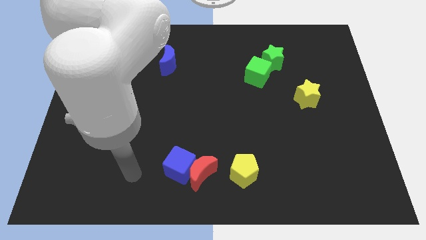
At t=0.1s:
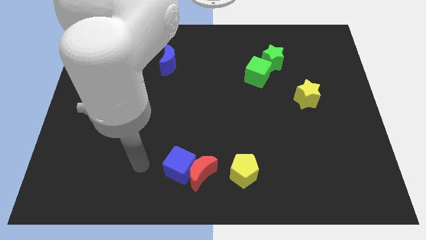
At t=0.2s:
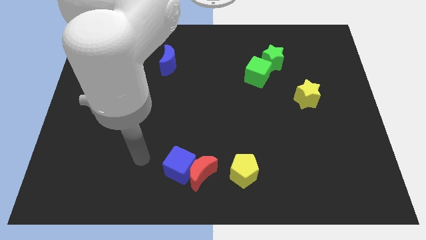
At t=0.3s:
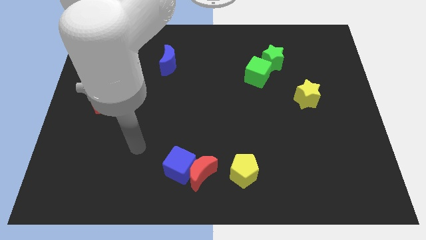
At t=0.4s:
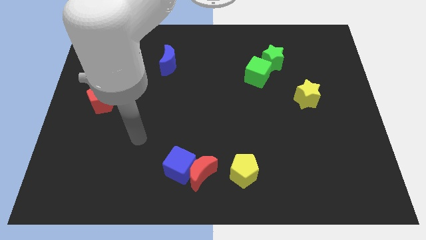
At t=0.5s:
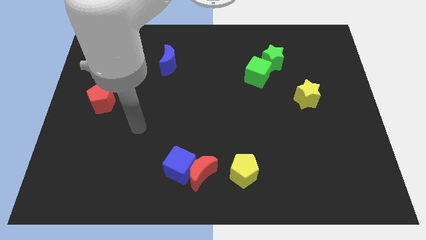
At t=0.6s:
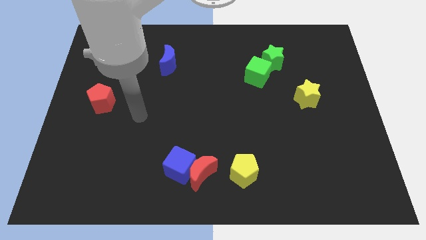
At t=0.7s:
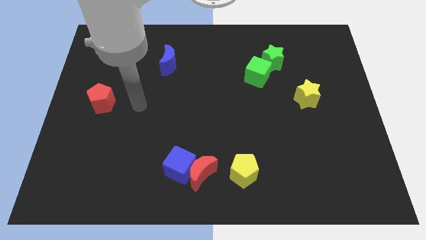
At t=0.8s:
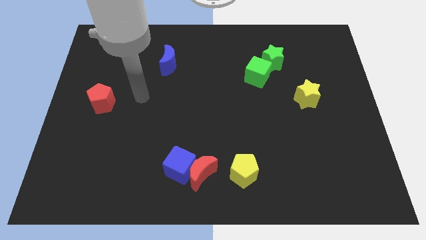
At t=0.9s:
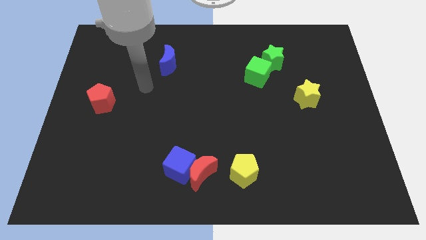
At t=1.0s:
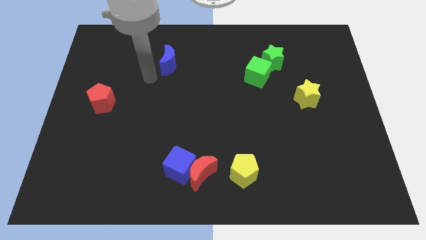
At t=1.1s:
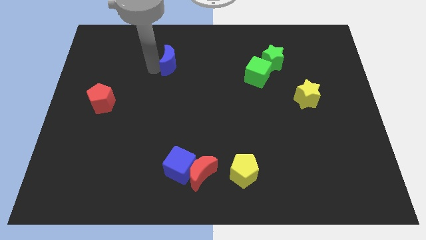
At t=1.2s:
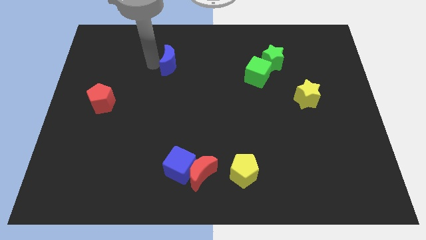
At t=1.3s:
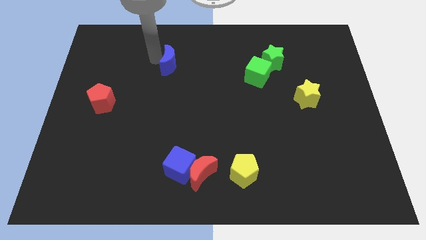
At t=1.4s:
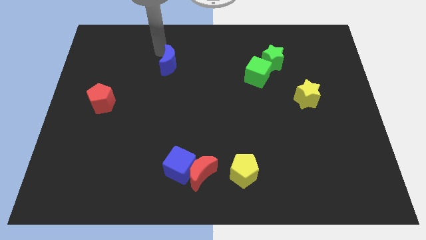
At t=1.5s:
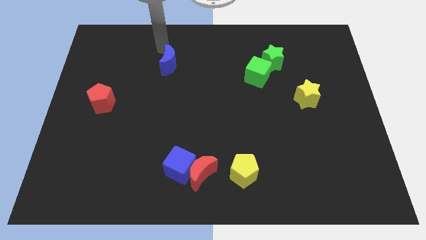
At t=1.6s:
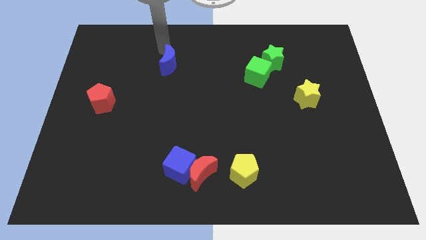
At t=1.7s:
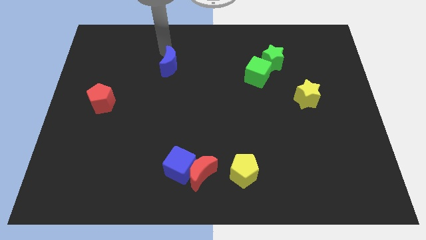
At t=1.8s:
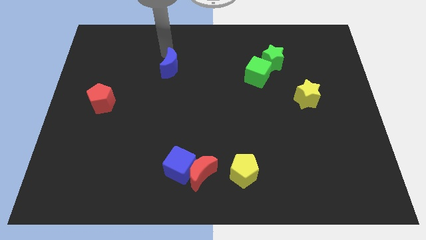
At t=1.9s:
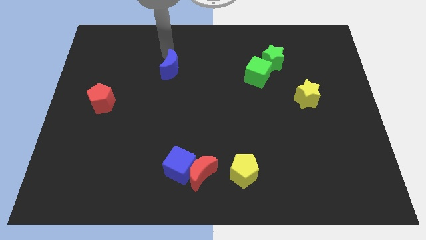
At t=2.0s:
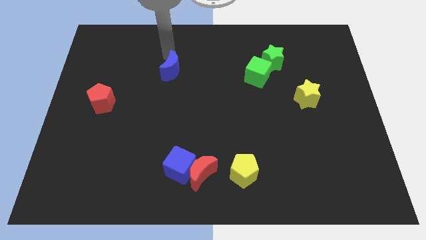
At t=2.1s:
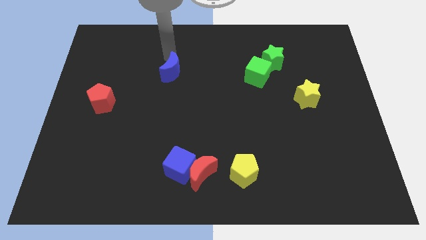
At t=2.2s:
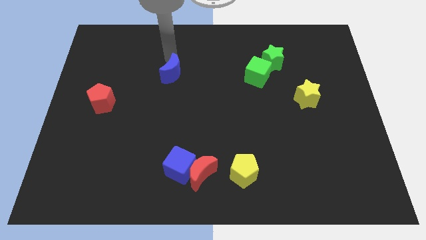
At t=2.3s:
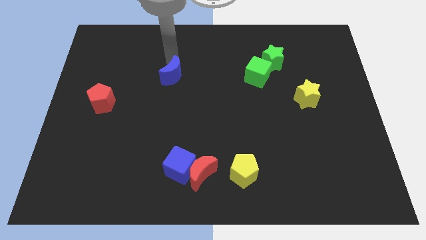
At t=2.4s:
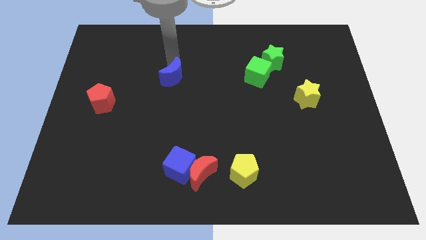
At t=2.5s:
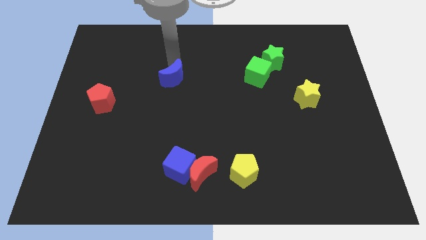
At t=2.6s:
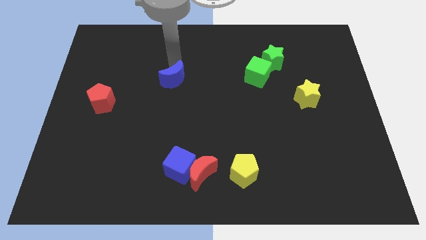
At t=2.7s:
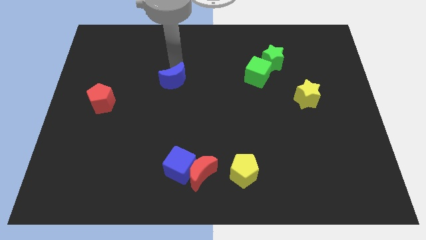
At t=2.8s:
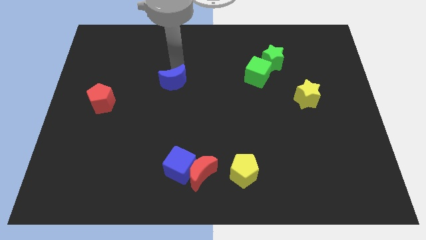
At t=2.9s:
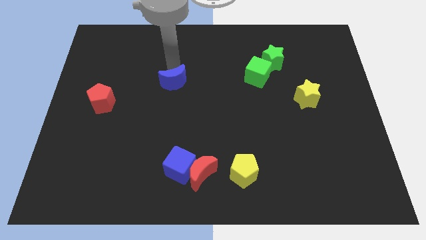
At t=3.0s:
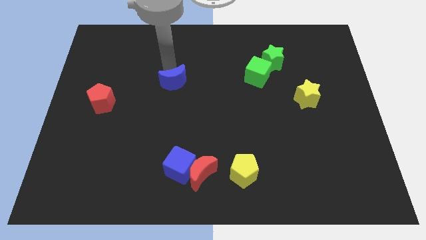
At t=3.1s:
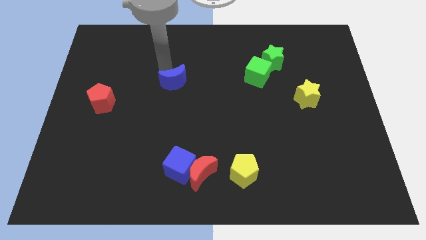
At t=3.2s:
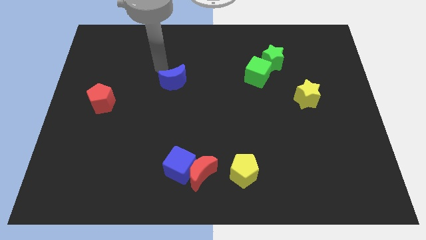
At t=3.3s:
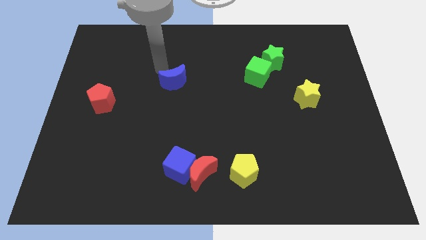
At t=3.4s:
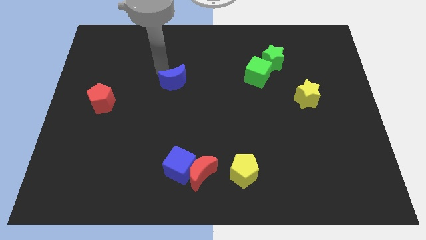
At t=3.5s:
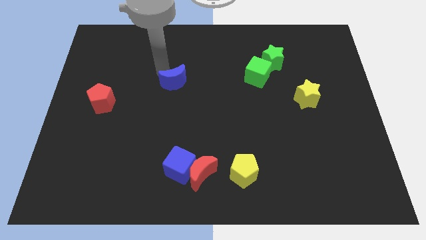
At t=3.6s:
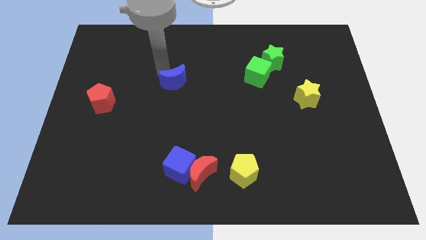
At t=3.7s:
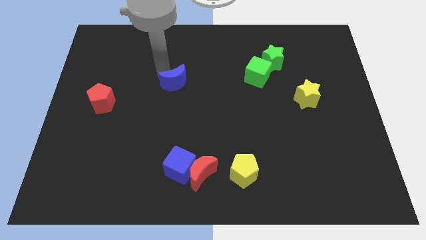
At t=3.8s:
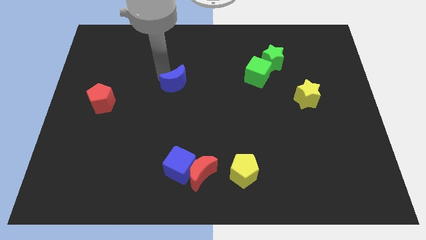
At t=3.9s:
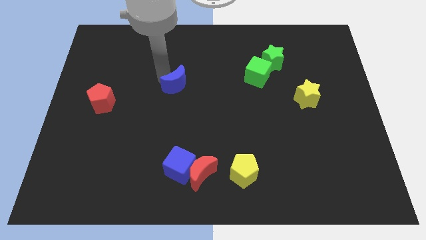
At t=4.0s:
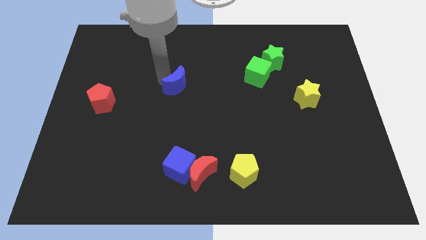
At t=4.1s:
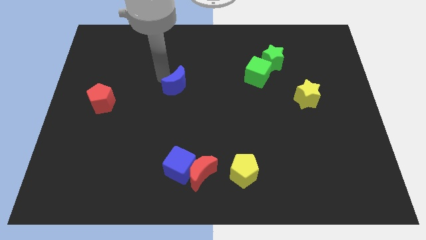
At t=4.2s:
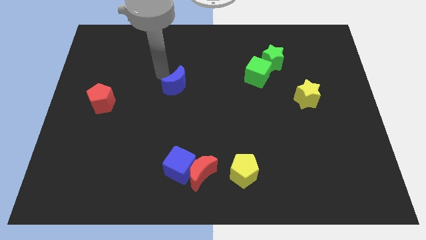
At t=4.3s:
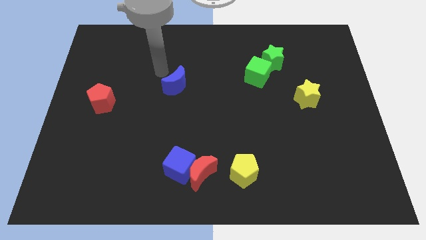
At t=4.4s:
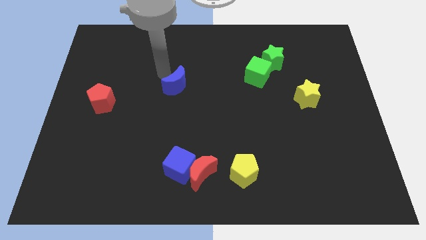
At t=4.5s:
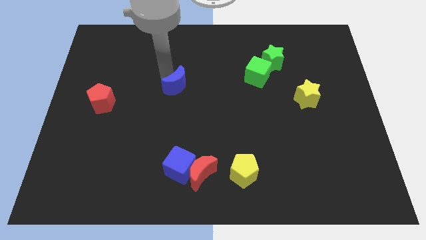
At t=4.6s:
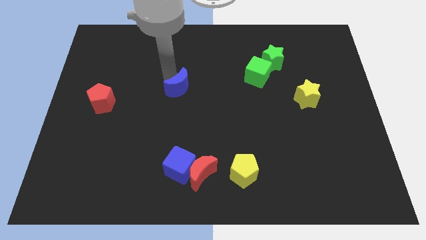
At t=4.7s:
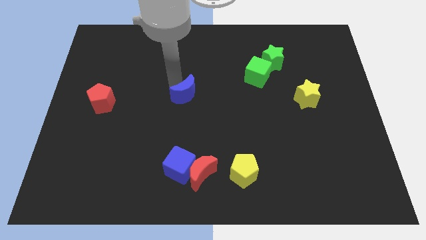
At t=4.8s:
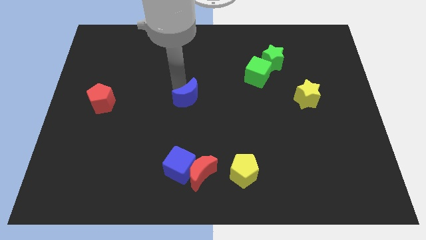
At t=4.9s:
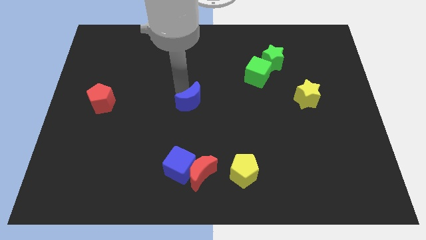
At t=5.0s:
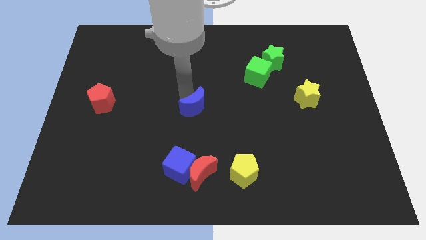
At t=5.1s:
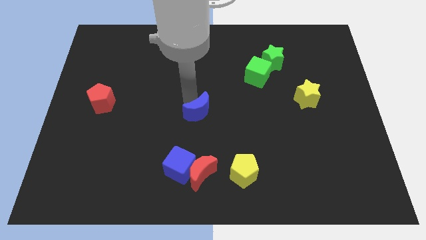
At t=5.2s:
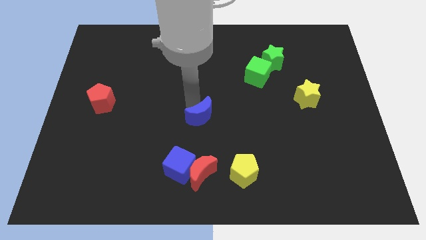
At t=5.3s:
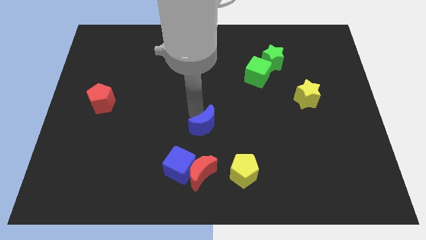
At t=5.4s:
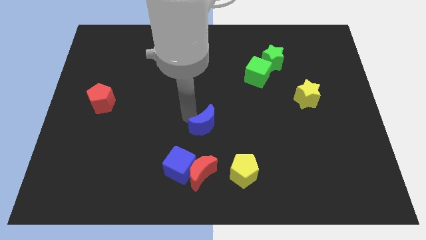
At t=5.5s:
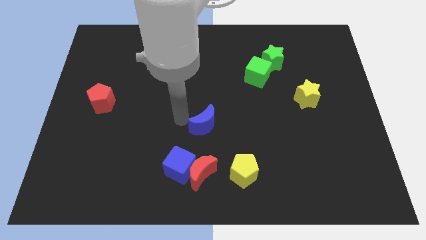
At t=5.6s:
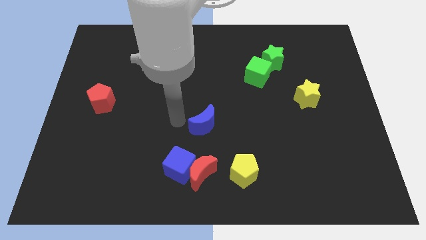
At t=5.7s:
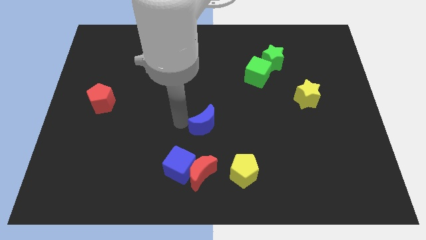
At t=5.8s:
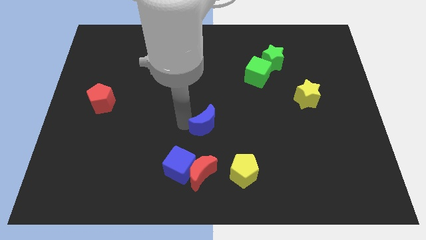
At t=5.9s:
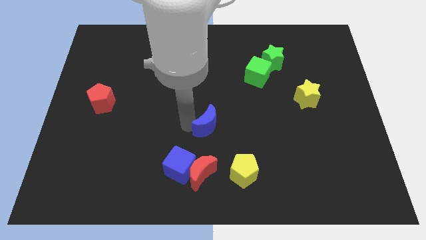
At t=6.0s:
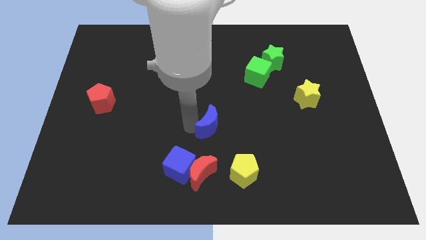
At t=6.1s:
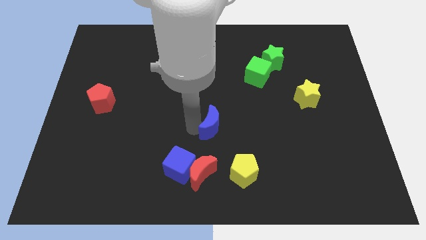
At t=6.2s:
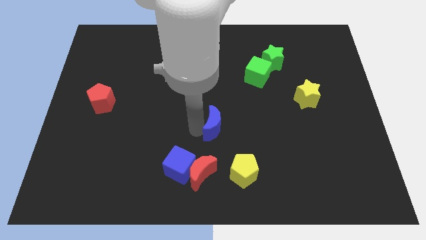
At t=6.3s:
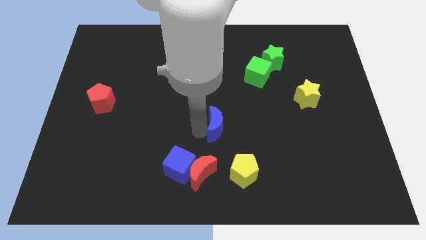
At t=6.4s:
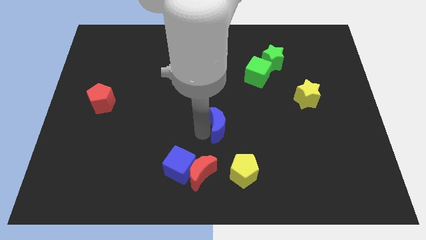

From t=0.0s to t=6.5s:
push the blue moon to the top side of the yellow pentagon

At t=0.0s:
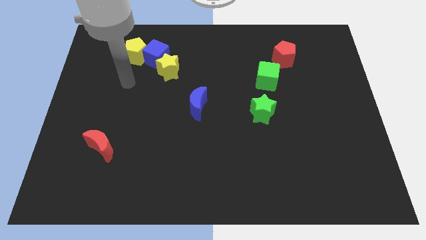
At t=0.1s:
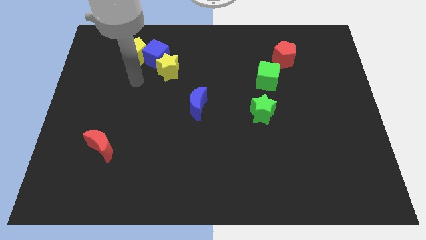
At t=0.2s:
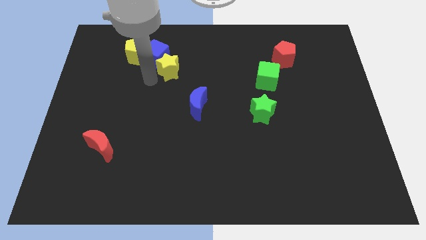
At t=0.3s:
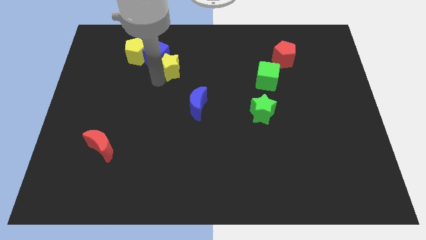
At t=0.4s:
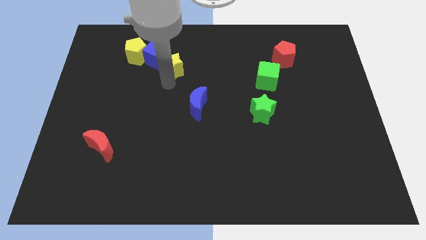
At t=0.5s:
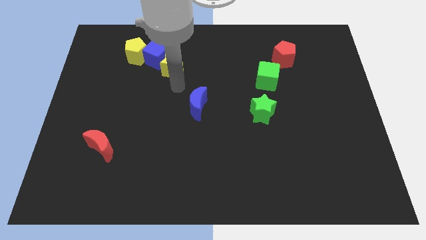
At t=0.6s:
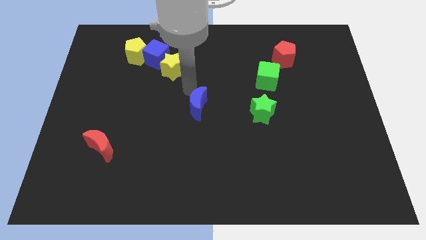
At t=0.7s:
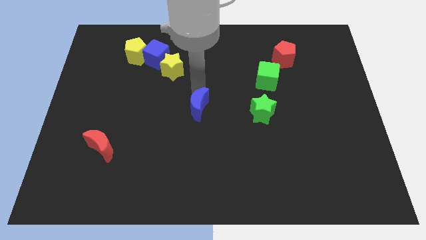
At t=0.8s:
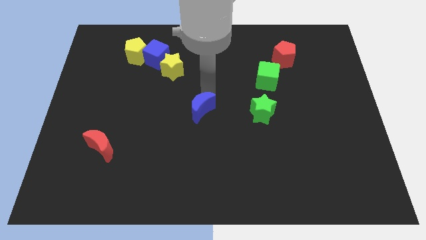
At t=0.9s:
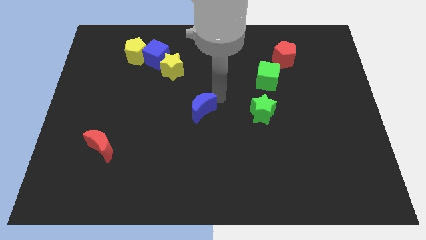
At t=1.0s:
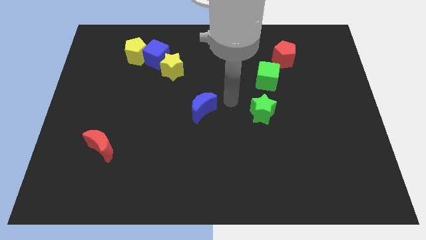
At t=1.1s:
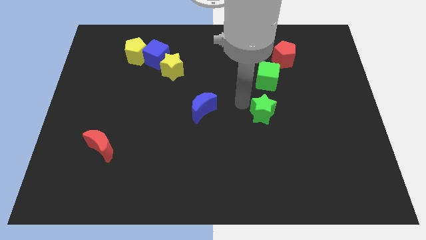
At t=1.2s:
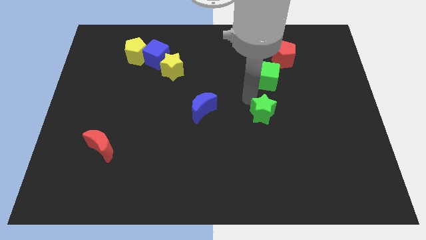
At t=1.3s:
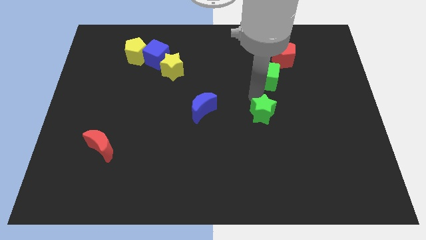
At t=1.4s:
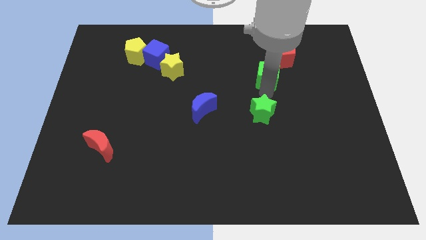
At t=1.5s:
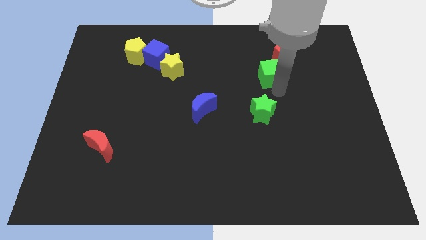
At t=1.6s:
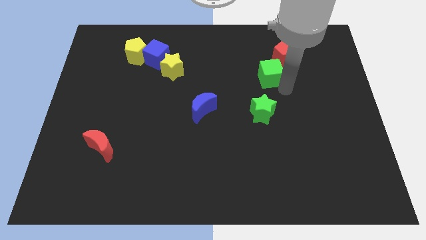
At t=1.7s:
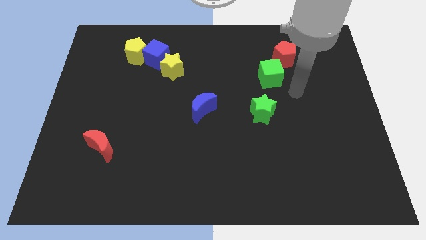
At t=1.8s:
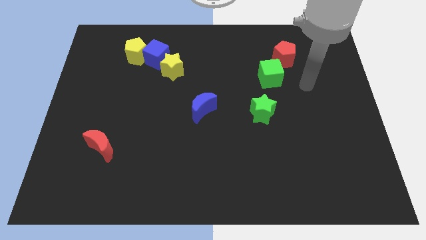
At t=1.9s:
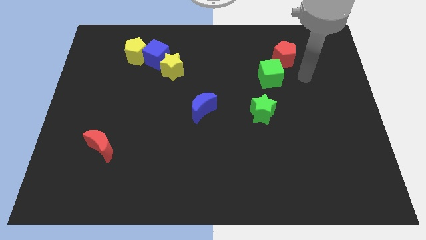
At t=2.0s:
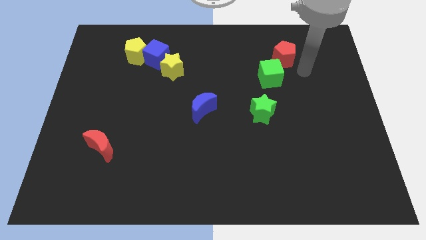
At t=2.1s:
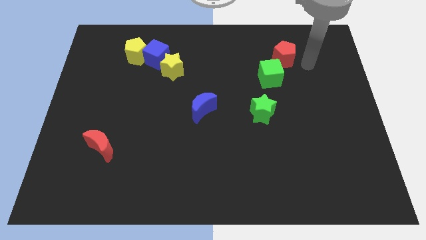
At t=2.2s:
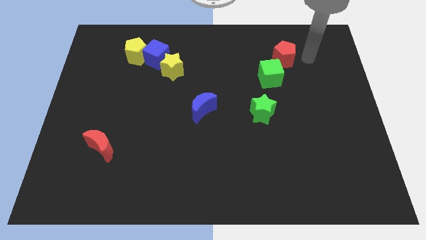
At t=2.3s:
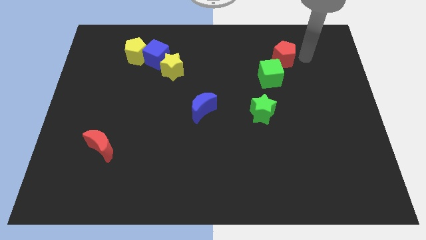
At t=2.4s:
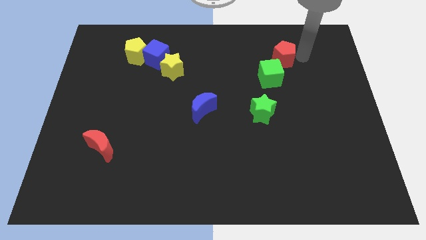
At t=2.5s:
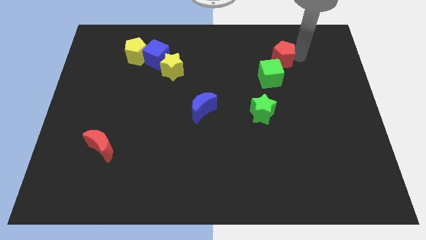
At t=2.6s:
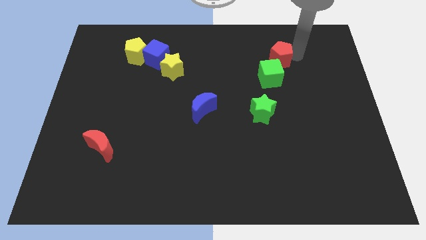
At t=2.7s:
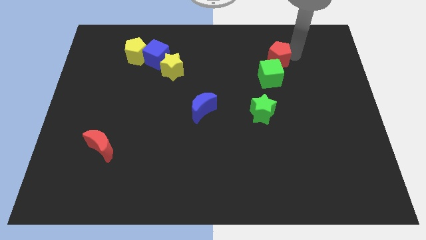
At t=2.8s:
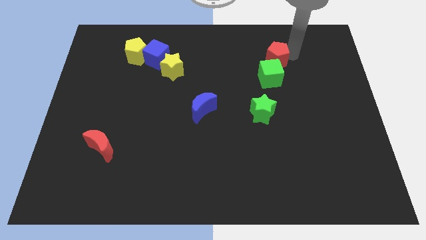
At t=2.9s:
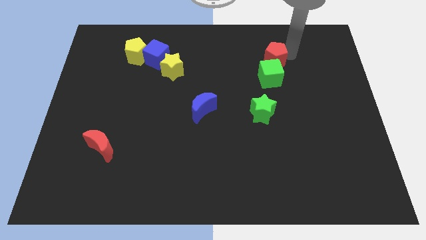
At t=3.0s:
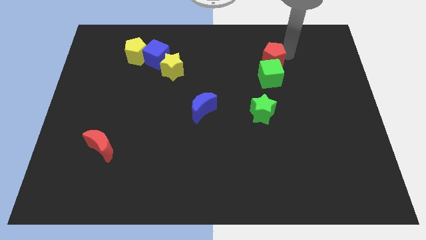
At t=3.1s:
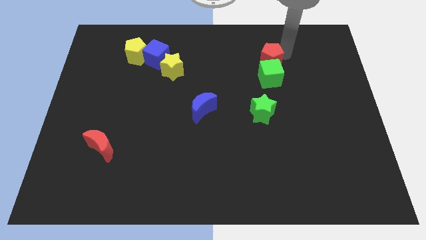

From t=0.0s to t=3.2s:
push the red pentagon to the top left side of the green cube
